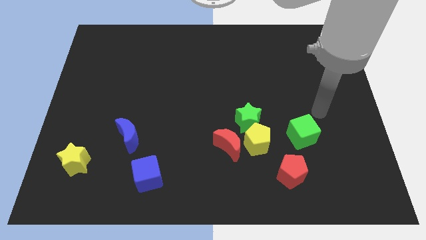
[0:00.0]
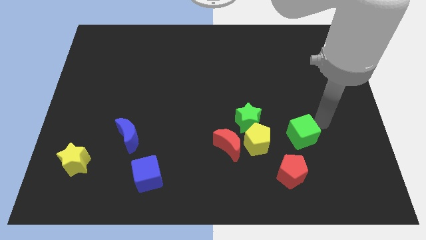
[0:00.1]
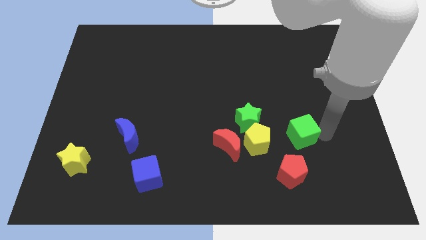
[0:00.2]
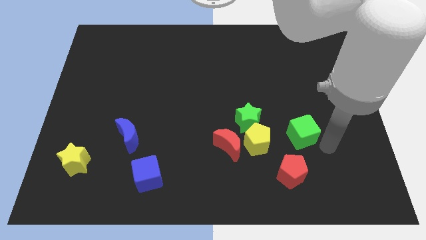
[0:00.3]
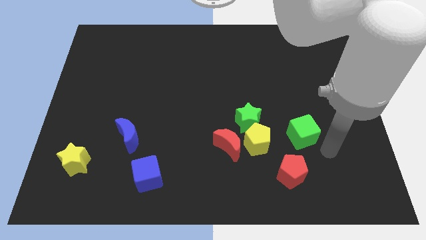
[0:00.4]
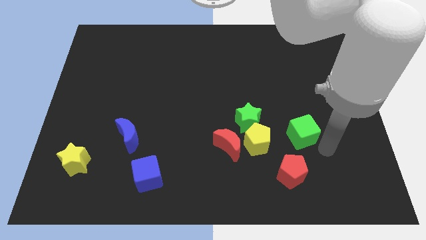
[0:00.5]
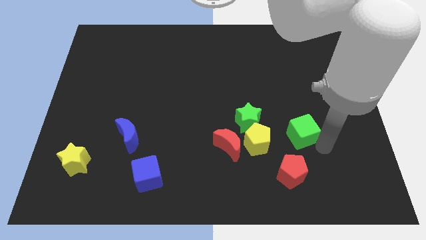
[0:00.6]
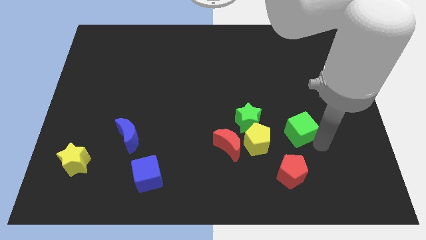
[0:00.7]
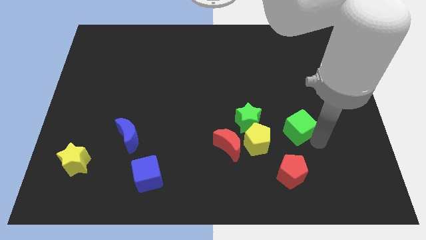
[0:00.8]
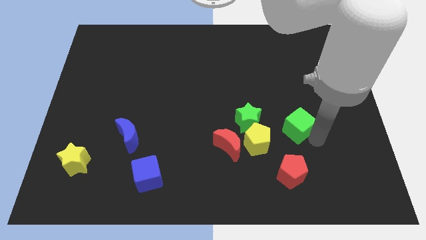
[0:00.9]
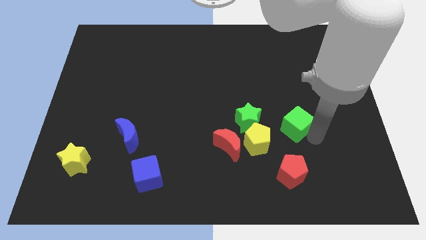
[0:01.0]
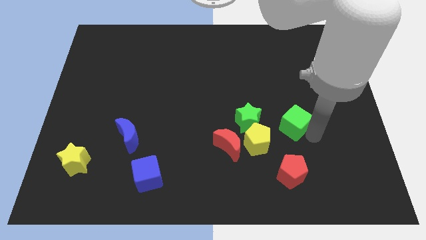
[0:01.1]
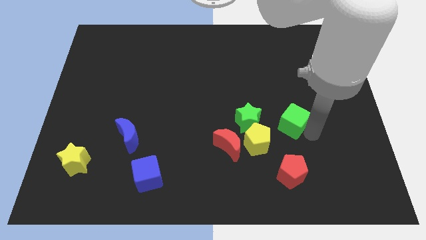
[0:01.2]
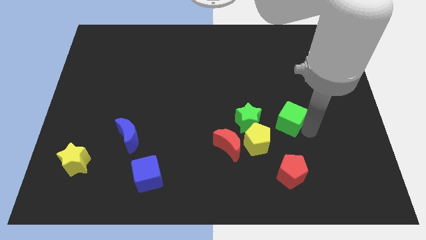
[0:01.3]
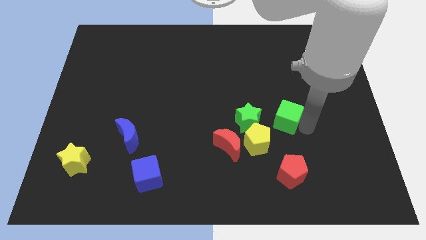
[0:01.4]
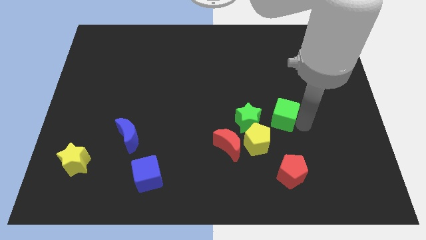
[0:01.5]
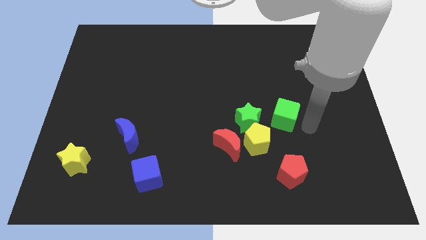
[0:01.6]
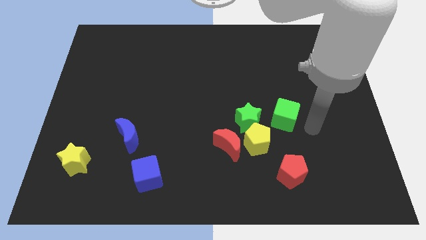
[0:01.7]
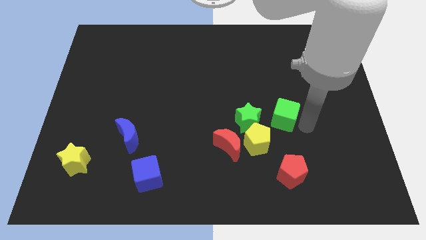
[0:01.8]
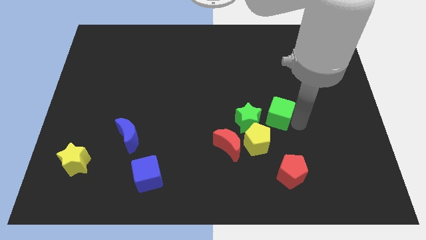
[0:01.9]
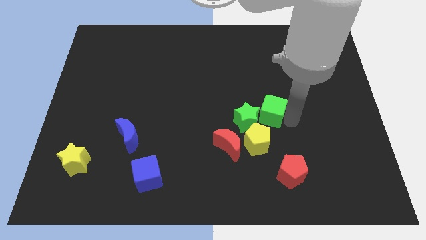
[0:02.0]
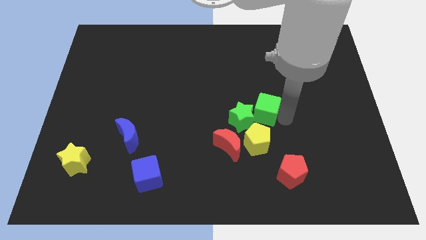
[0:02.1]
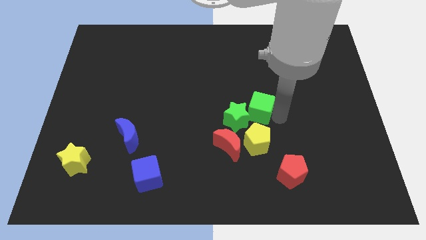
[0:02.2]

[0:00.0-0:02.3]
slide the green cube to the left slightly

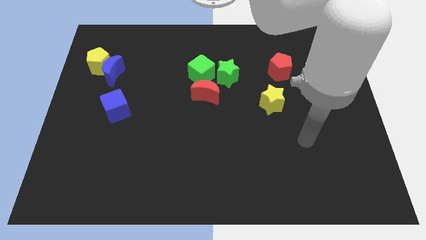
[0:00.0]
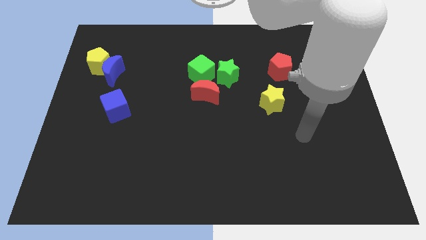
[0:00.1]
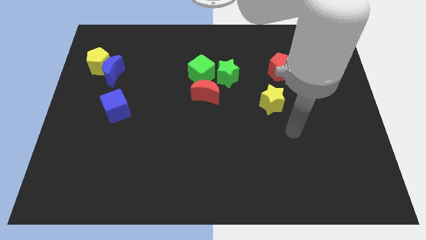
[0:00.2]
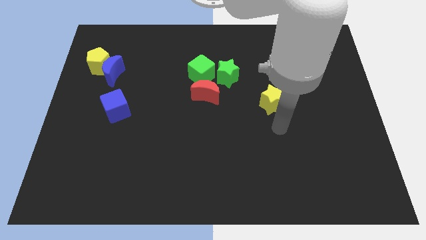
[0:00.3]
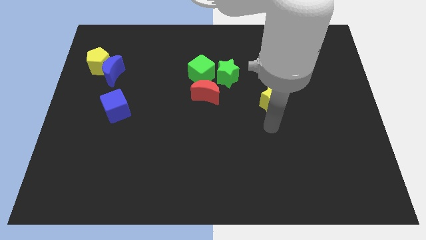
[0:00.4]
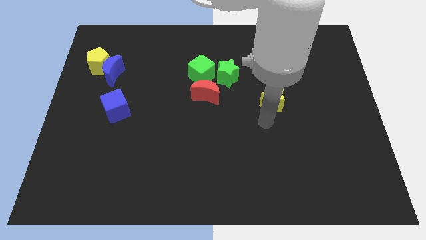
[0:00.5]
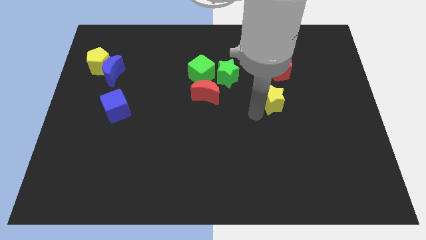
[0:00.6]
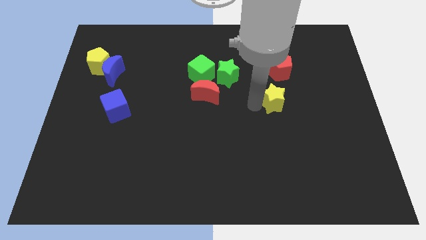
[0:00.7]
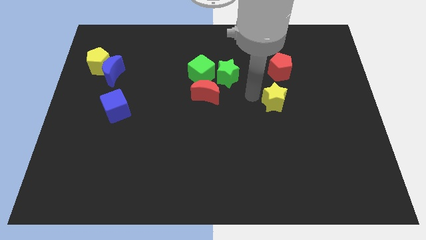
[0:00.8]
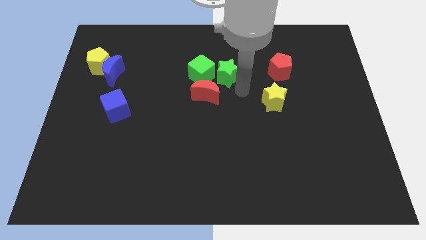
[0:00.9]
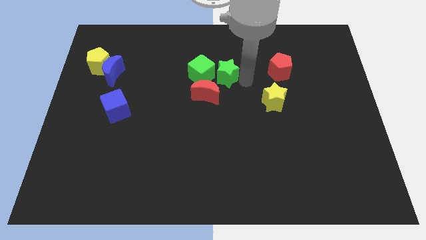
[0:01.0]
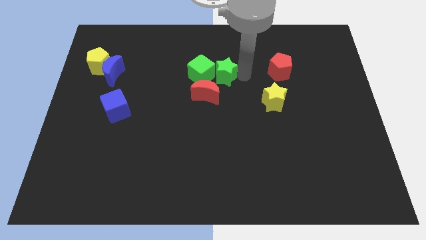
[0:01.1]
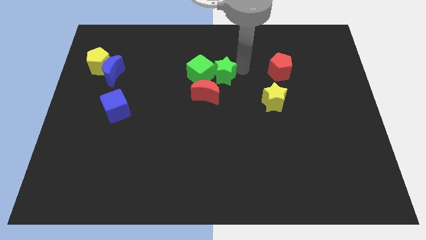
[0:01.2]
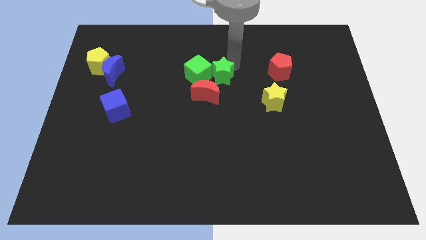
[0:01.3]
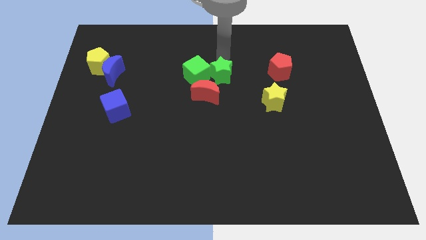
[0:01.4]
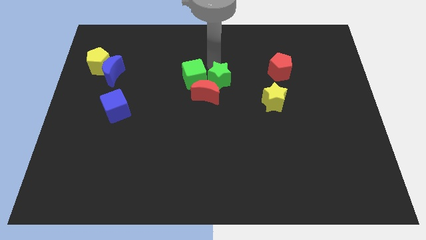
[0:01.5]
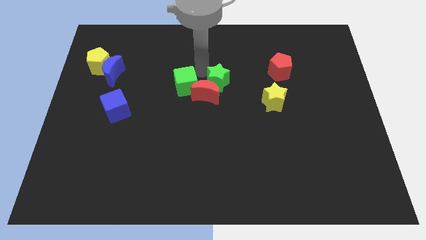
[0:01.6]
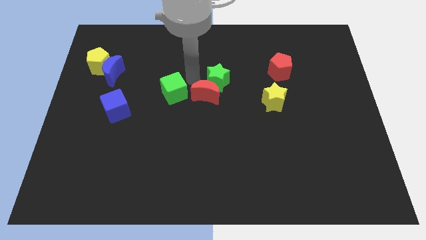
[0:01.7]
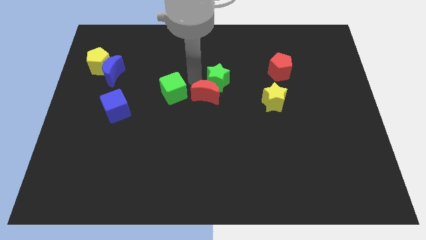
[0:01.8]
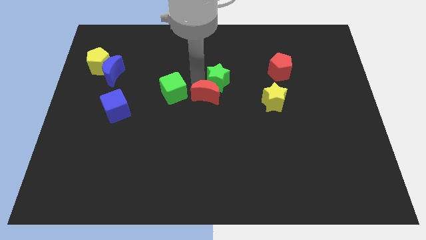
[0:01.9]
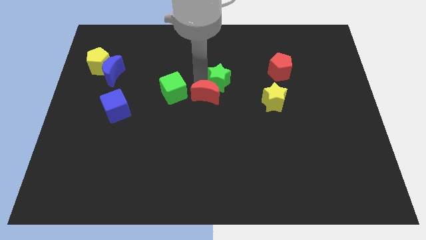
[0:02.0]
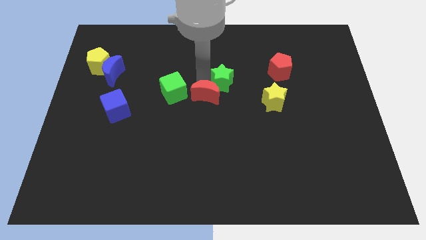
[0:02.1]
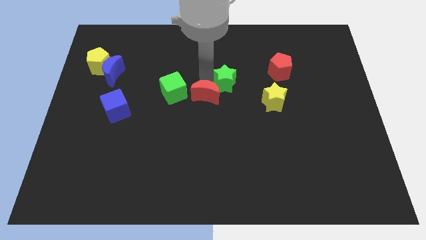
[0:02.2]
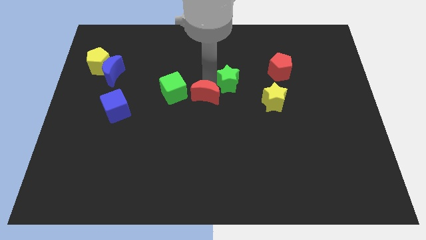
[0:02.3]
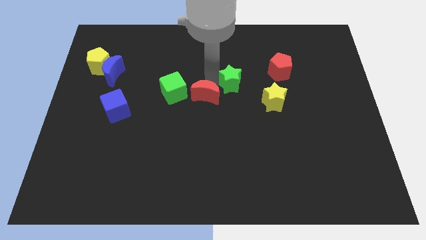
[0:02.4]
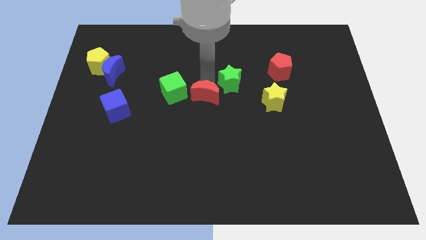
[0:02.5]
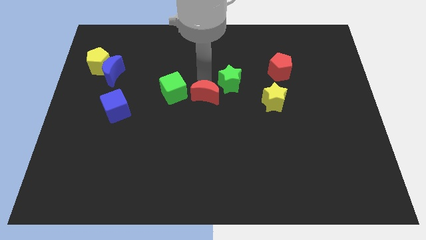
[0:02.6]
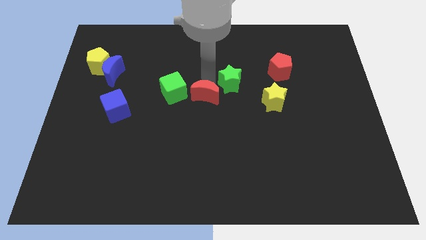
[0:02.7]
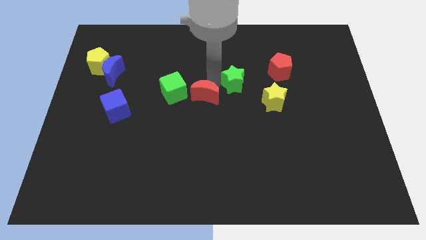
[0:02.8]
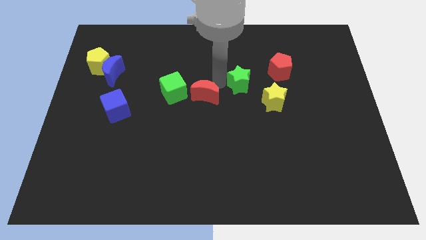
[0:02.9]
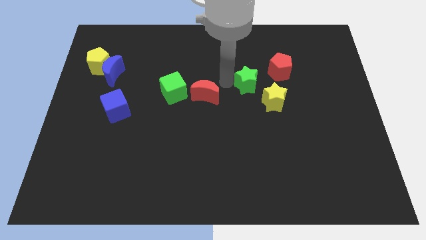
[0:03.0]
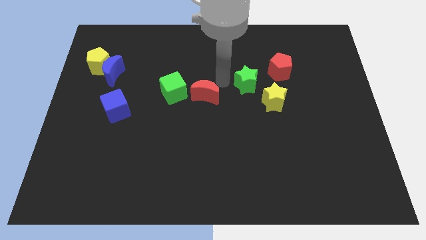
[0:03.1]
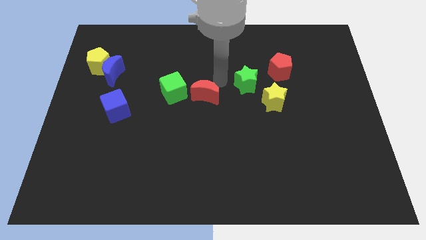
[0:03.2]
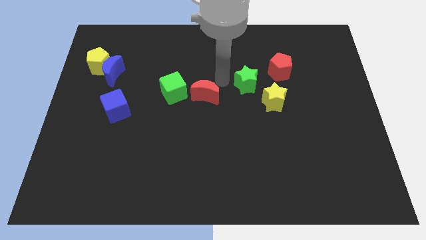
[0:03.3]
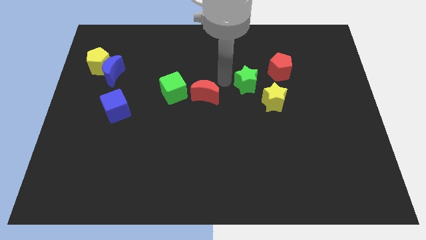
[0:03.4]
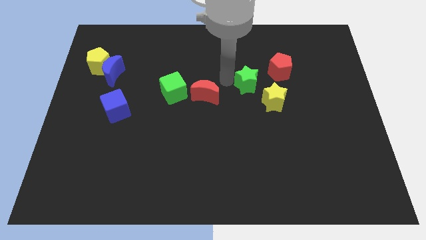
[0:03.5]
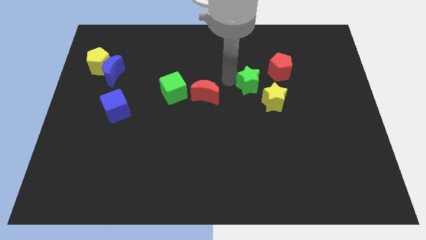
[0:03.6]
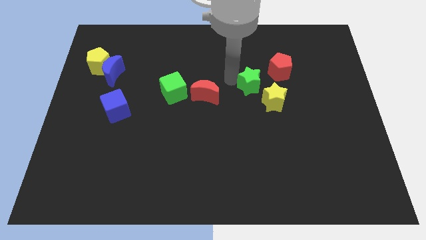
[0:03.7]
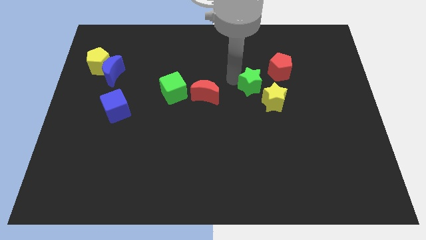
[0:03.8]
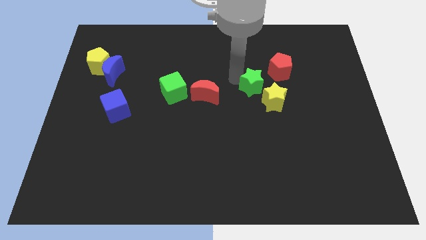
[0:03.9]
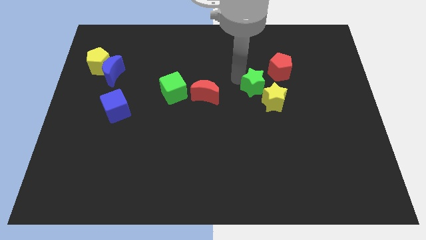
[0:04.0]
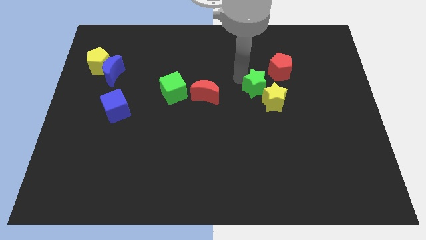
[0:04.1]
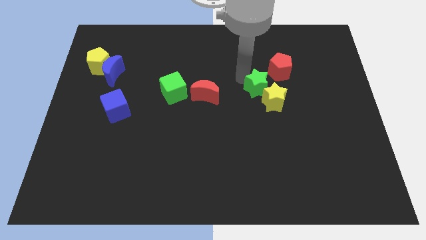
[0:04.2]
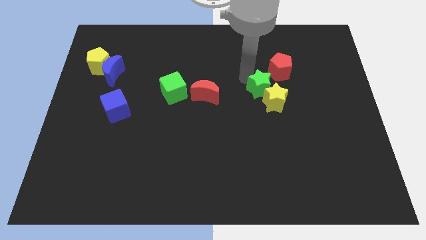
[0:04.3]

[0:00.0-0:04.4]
slightly move the green star right

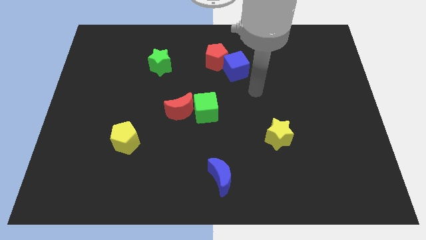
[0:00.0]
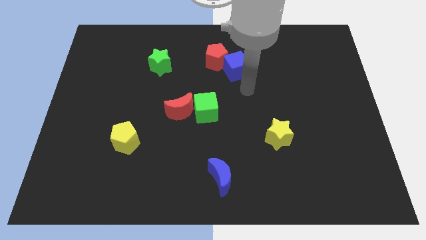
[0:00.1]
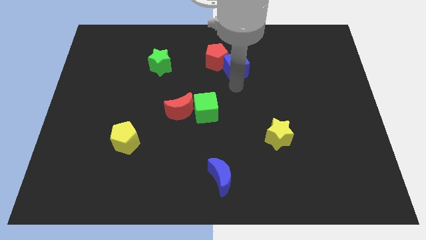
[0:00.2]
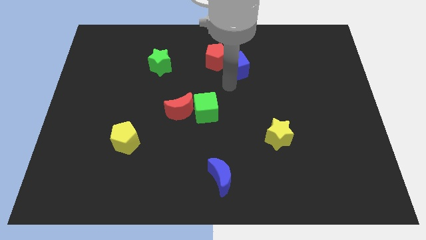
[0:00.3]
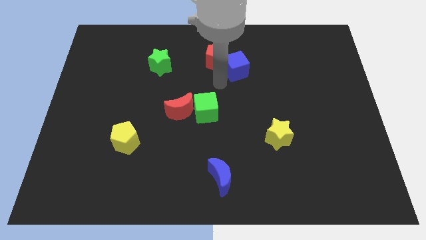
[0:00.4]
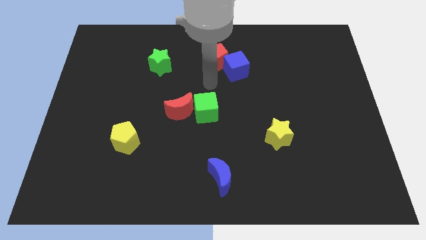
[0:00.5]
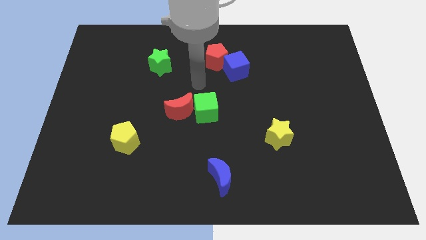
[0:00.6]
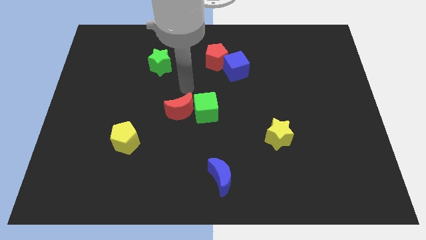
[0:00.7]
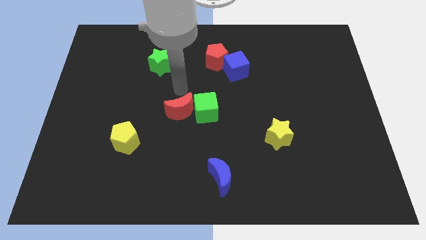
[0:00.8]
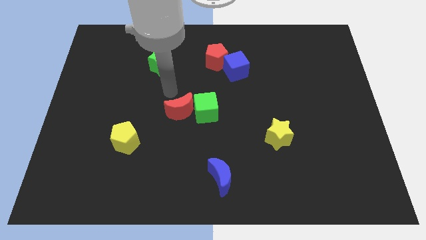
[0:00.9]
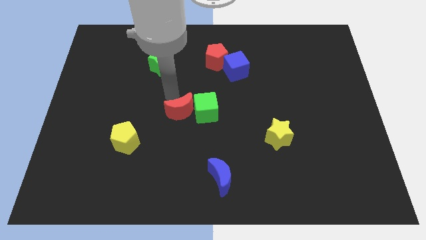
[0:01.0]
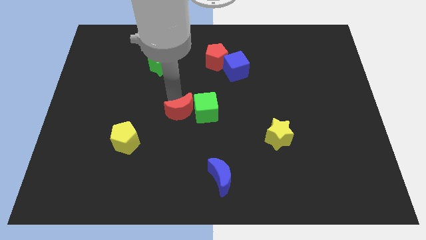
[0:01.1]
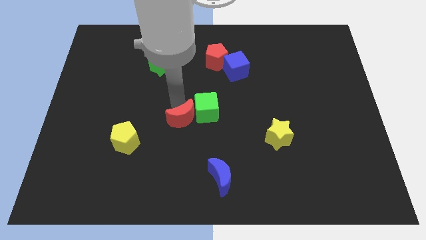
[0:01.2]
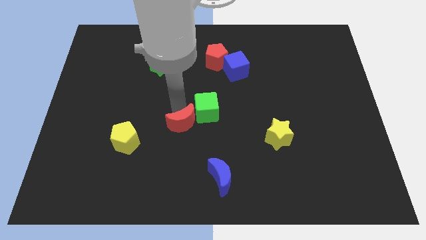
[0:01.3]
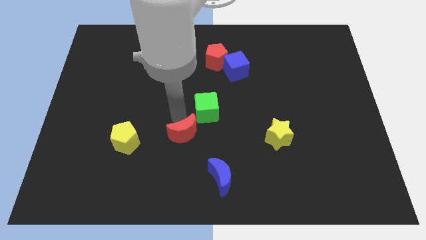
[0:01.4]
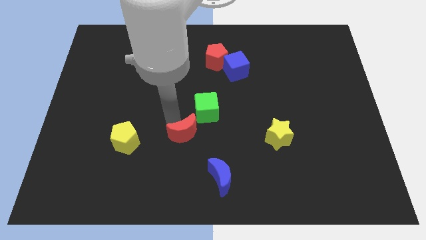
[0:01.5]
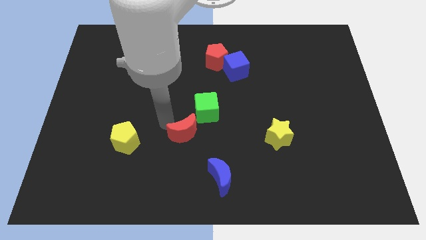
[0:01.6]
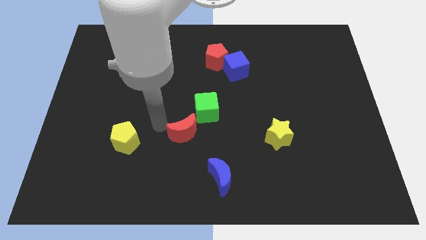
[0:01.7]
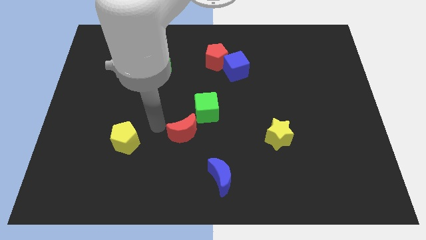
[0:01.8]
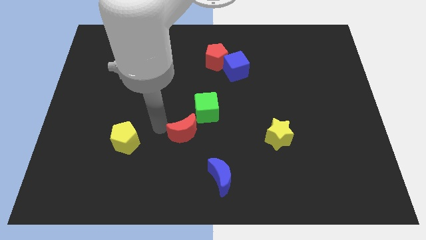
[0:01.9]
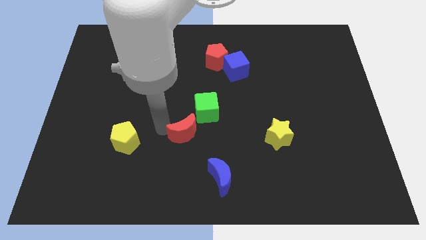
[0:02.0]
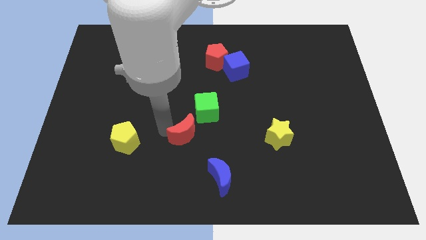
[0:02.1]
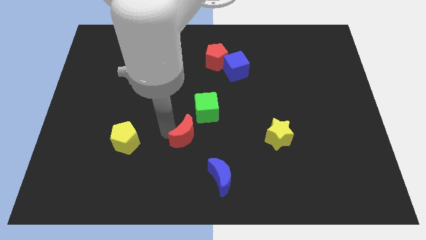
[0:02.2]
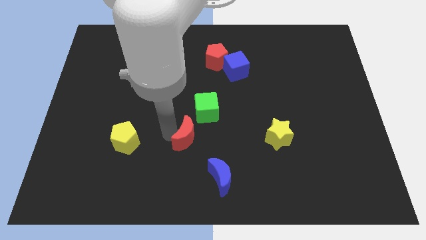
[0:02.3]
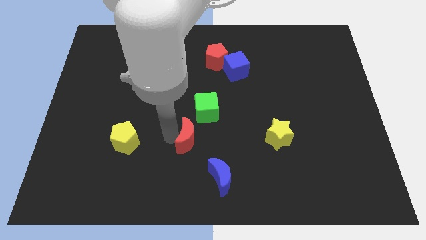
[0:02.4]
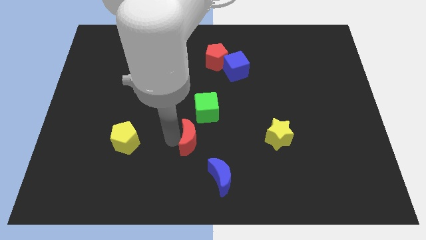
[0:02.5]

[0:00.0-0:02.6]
push the red moon diagonally downwards and to the right somewhat
